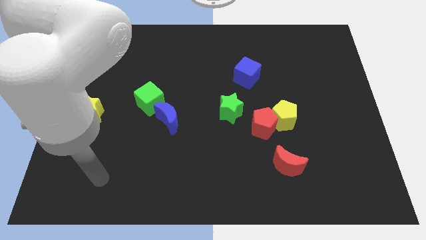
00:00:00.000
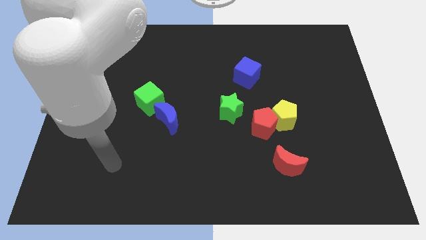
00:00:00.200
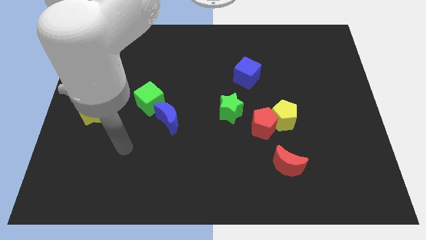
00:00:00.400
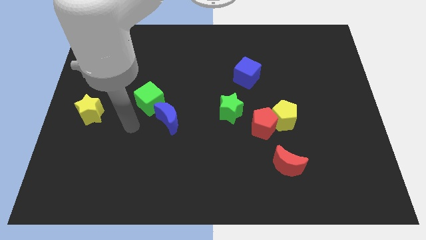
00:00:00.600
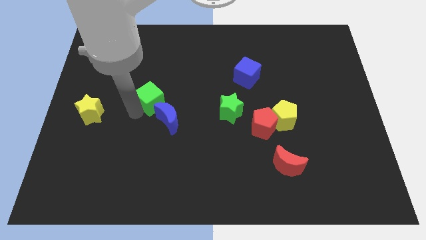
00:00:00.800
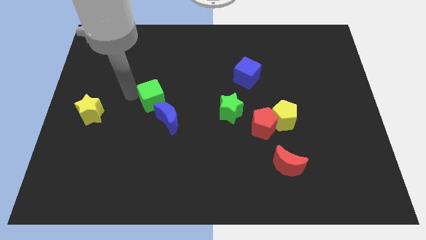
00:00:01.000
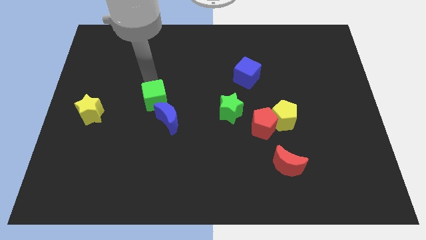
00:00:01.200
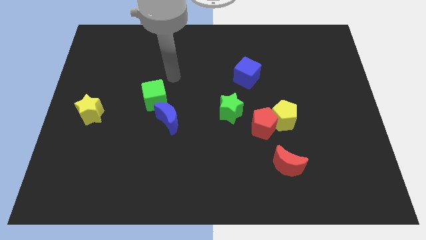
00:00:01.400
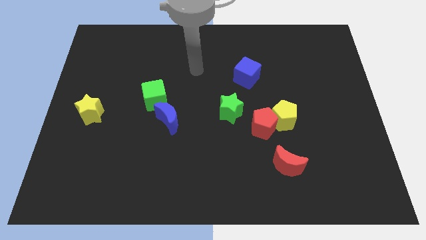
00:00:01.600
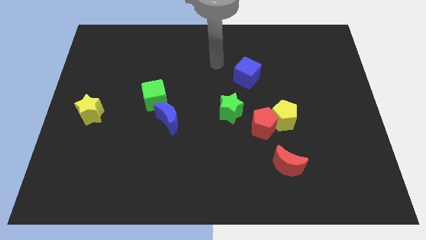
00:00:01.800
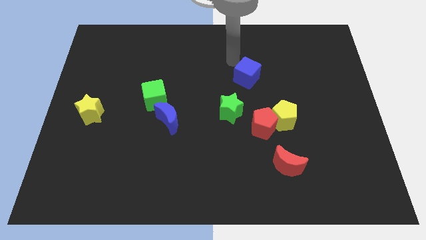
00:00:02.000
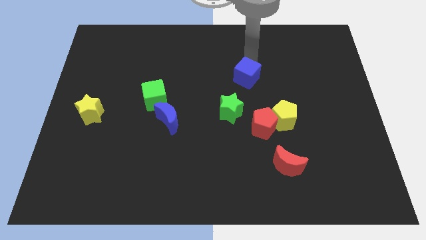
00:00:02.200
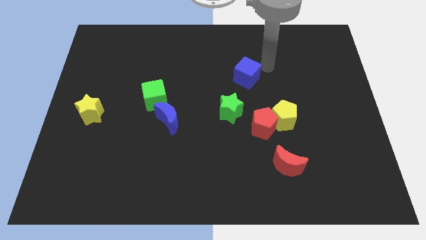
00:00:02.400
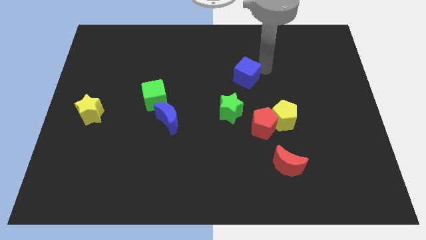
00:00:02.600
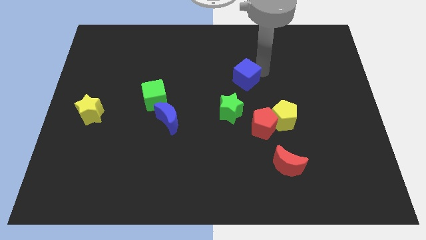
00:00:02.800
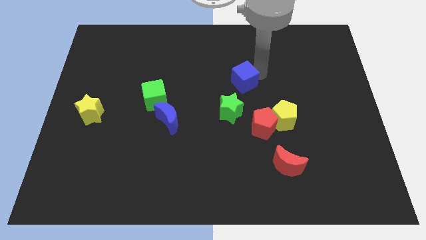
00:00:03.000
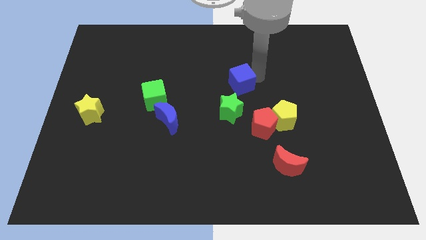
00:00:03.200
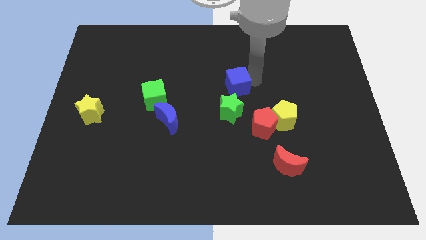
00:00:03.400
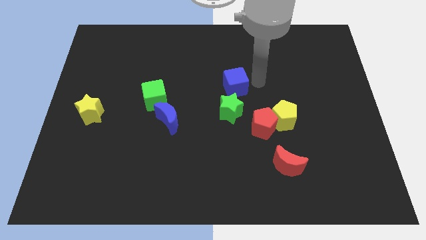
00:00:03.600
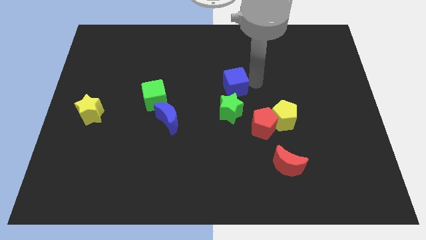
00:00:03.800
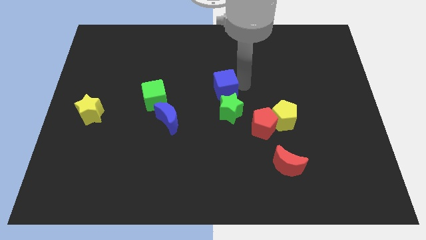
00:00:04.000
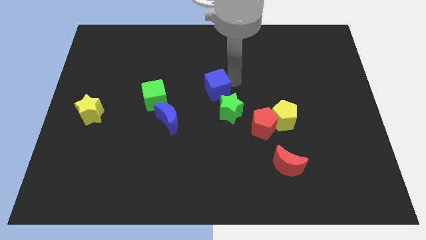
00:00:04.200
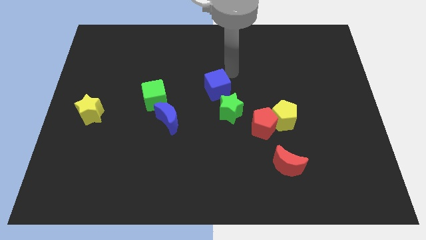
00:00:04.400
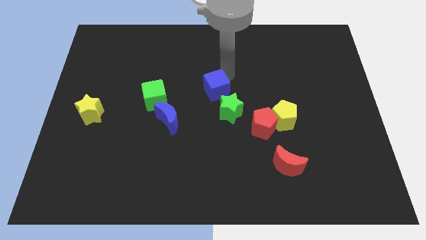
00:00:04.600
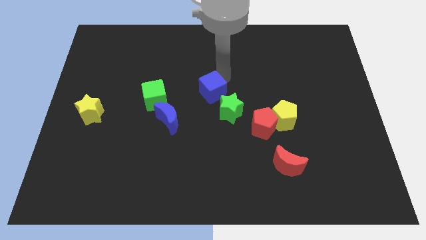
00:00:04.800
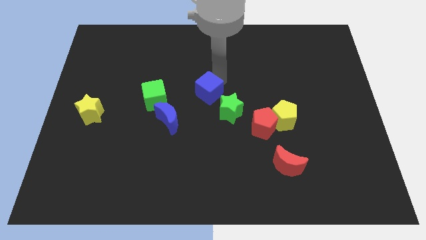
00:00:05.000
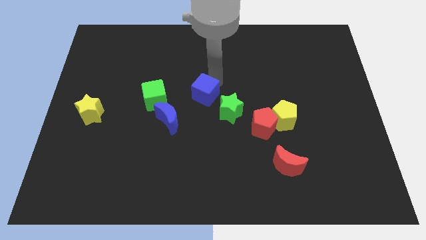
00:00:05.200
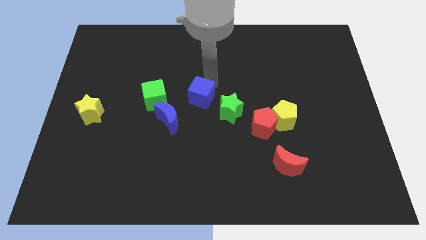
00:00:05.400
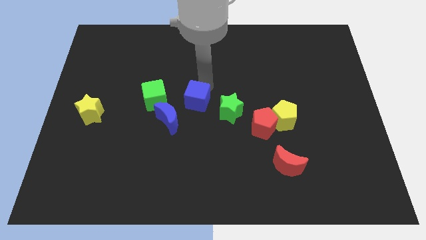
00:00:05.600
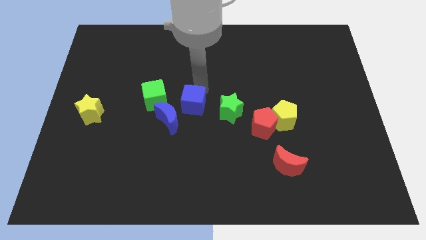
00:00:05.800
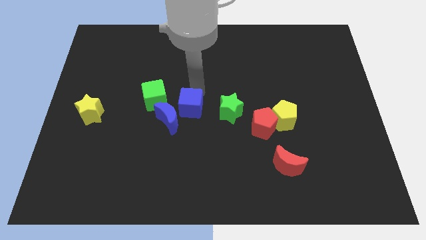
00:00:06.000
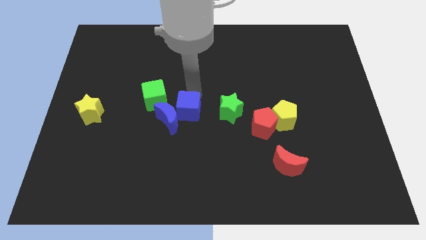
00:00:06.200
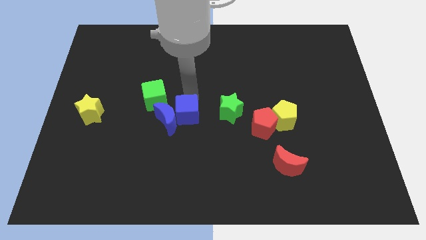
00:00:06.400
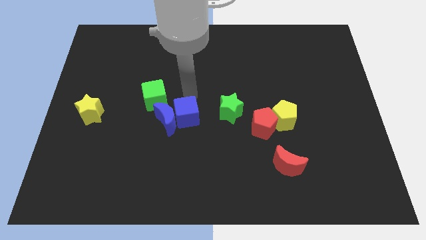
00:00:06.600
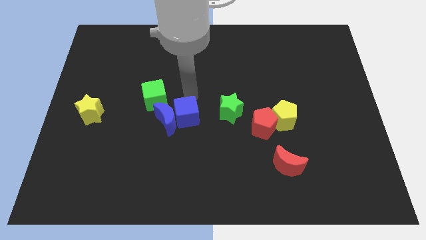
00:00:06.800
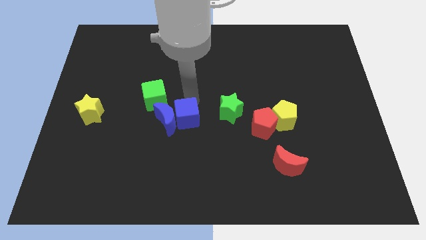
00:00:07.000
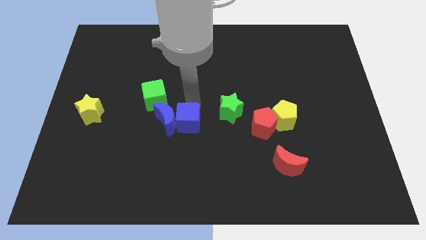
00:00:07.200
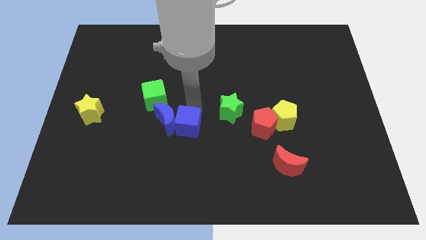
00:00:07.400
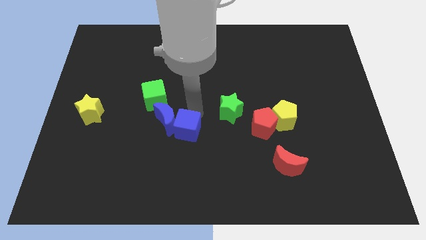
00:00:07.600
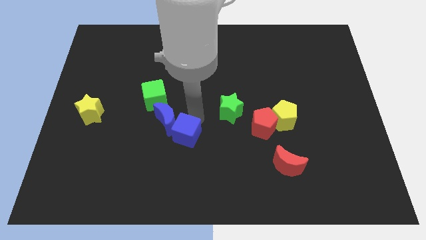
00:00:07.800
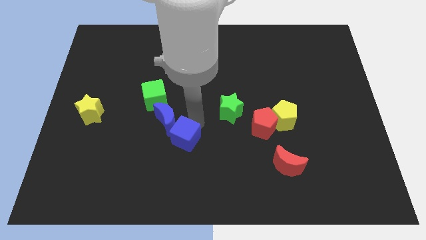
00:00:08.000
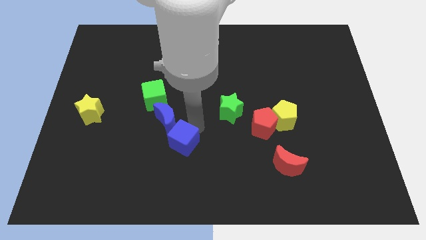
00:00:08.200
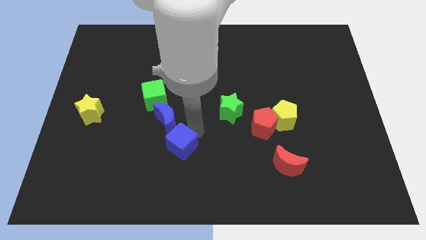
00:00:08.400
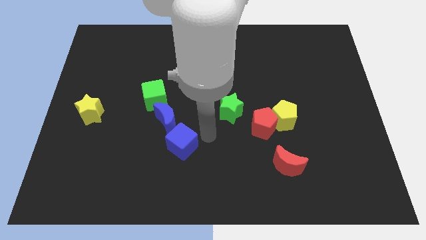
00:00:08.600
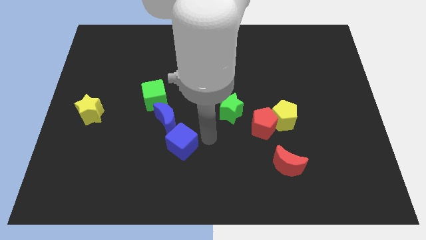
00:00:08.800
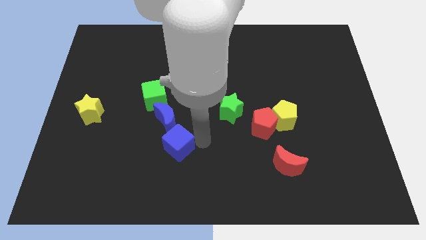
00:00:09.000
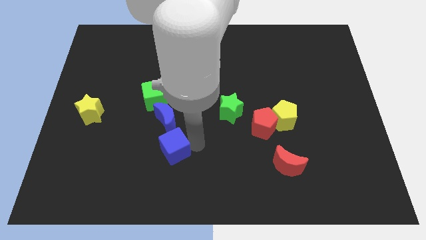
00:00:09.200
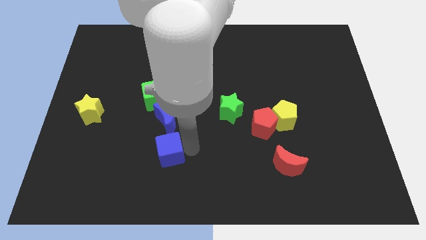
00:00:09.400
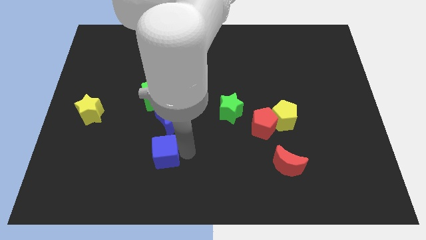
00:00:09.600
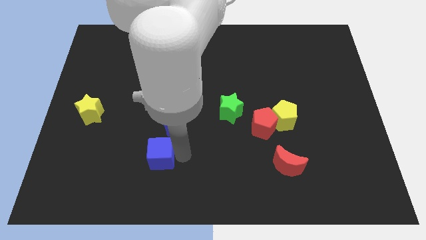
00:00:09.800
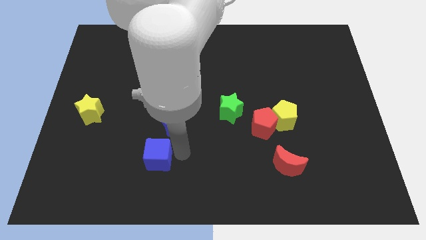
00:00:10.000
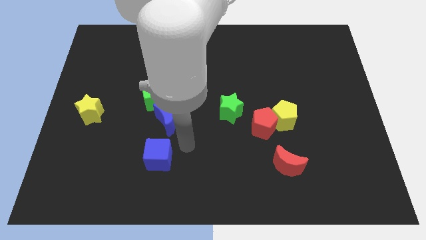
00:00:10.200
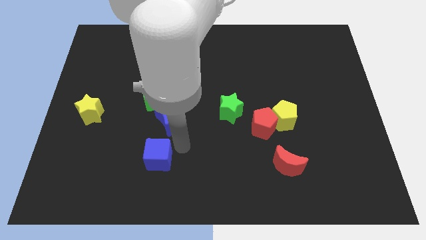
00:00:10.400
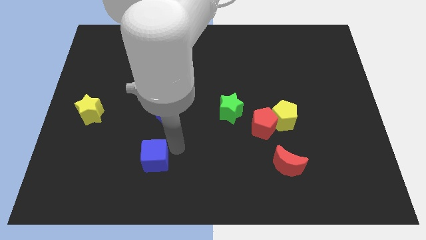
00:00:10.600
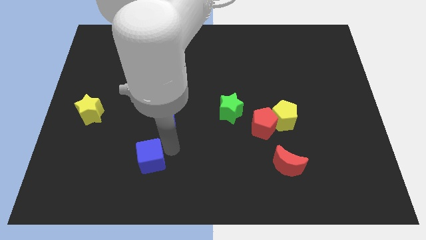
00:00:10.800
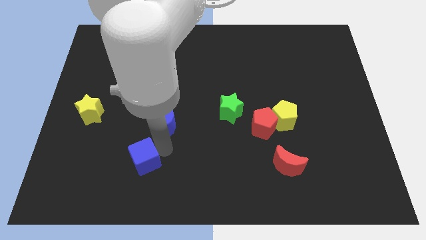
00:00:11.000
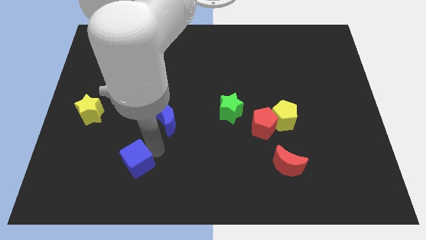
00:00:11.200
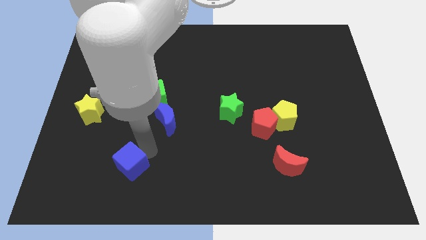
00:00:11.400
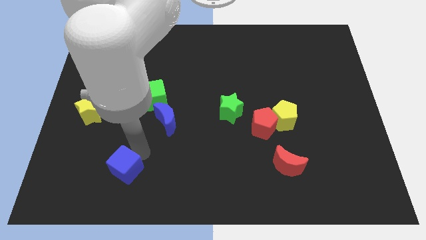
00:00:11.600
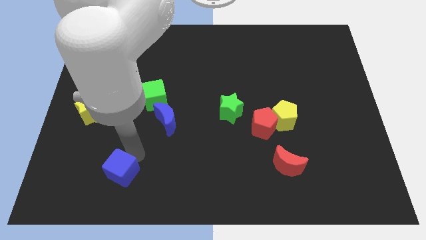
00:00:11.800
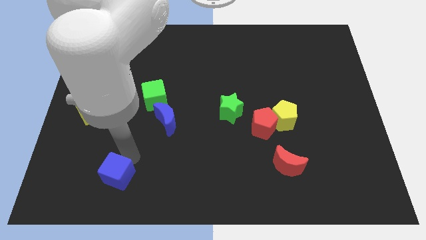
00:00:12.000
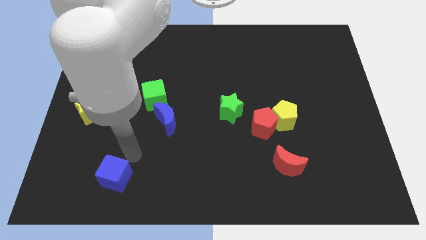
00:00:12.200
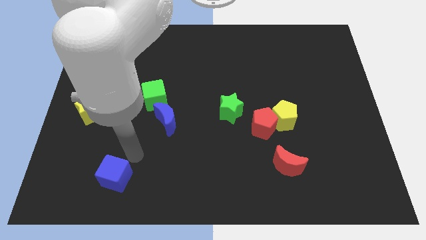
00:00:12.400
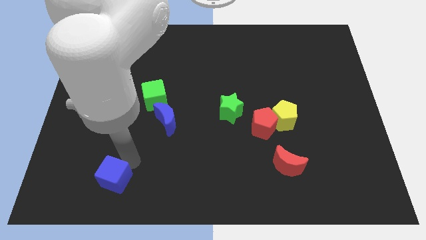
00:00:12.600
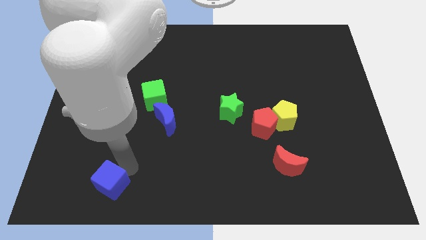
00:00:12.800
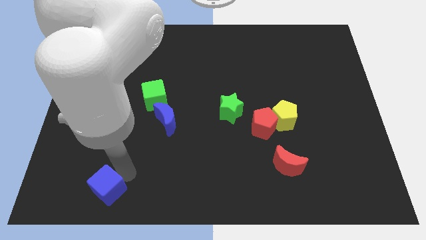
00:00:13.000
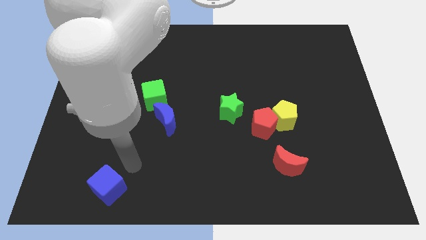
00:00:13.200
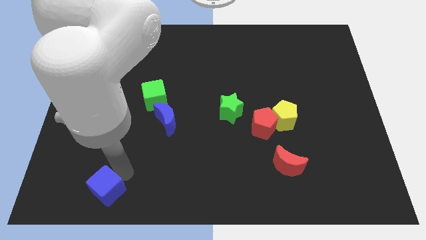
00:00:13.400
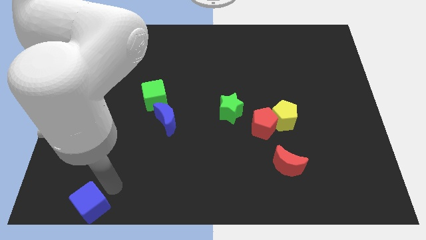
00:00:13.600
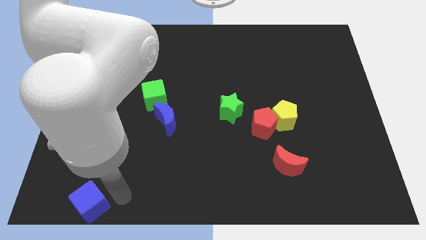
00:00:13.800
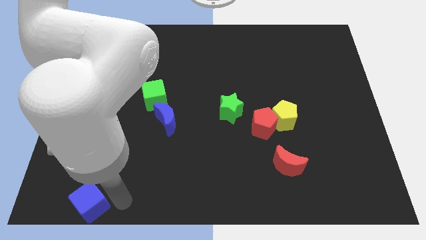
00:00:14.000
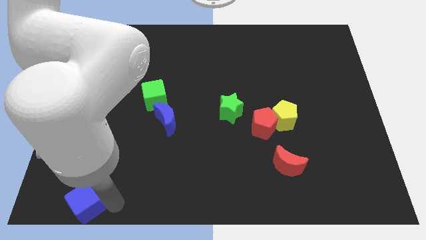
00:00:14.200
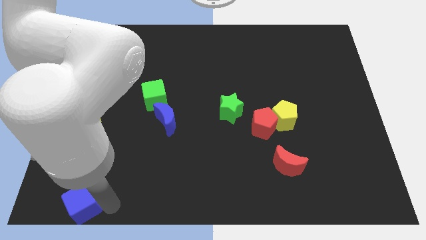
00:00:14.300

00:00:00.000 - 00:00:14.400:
slide the blue cube to the bottom left of the board
